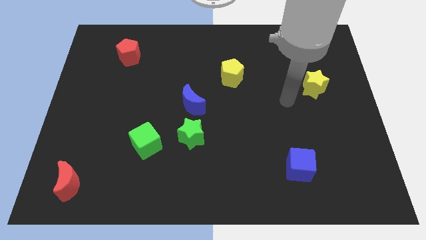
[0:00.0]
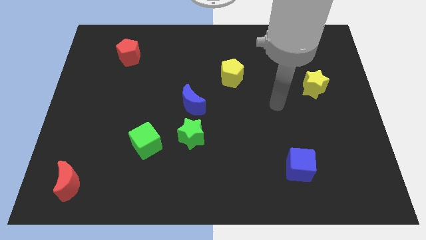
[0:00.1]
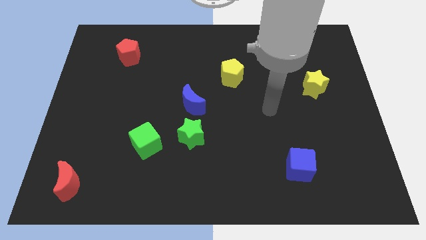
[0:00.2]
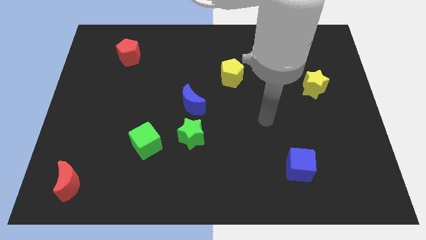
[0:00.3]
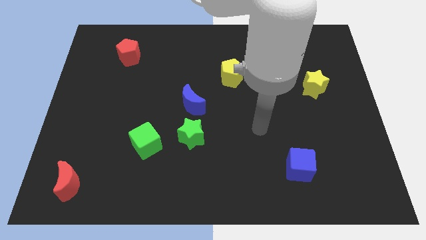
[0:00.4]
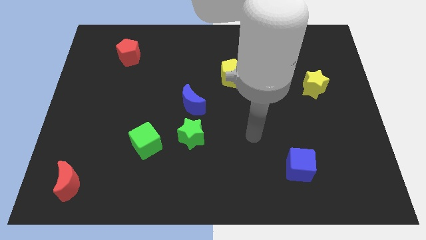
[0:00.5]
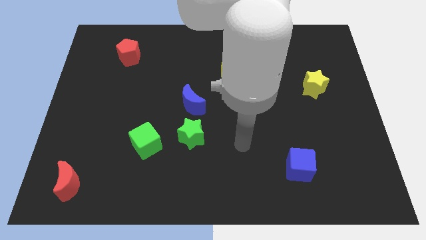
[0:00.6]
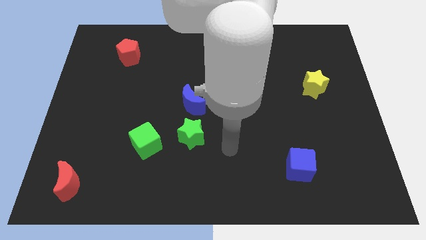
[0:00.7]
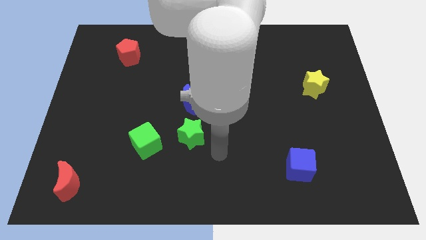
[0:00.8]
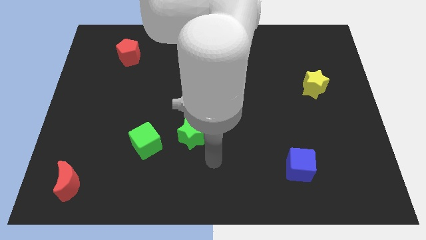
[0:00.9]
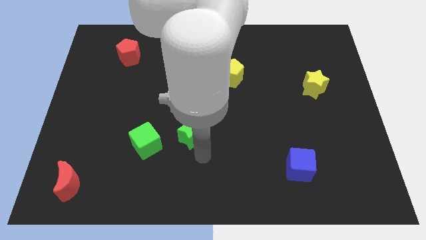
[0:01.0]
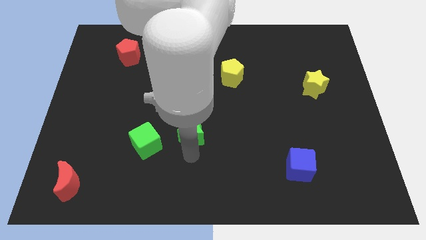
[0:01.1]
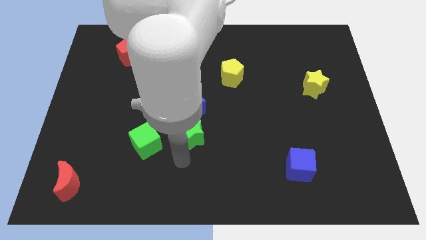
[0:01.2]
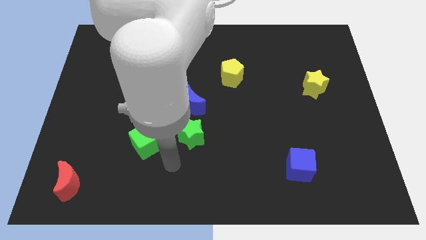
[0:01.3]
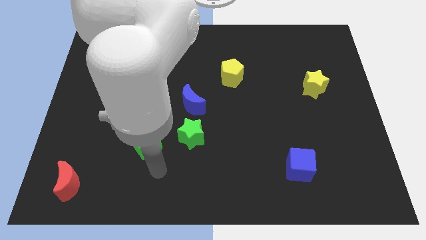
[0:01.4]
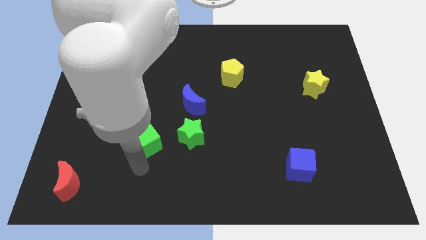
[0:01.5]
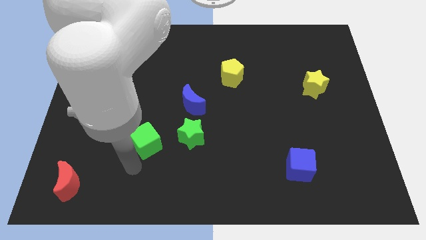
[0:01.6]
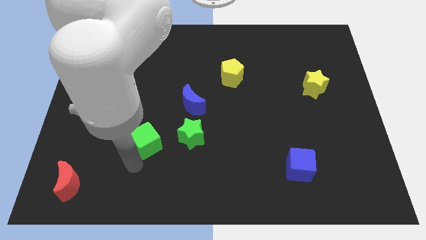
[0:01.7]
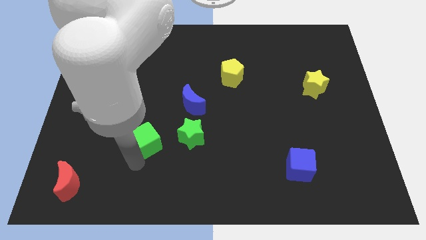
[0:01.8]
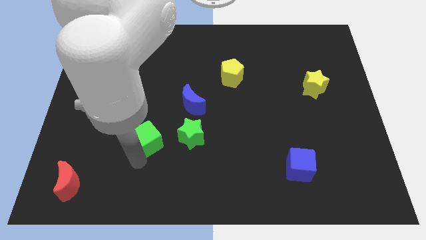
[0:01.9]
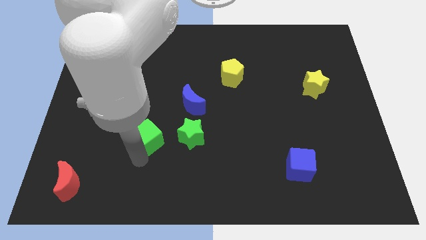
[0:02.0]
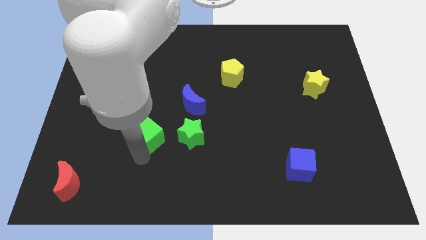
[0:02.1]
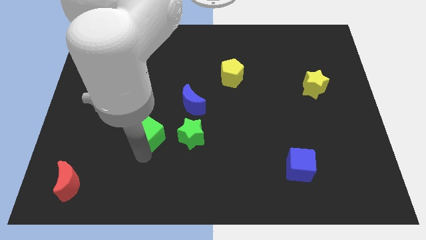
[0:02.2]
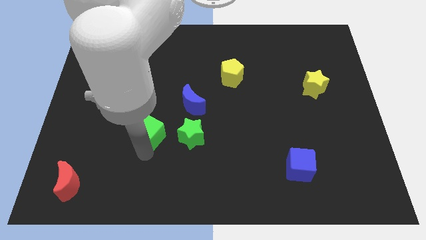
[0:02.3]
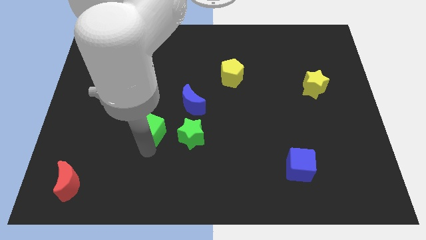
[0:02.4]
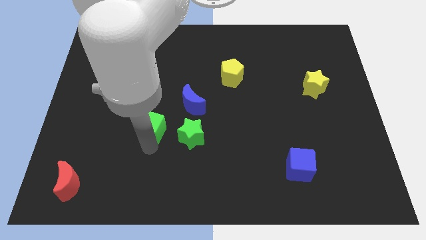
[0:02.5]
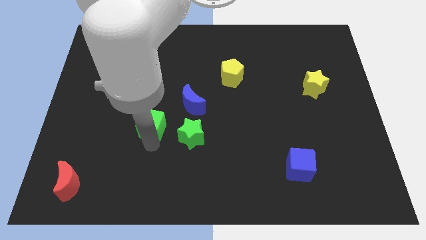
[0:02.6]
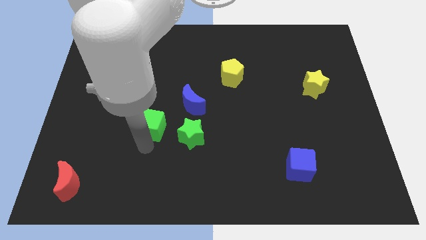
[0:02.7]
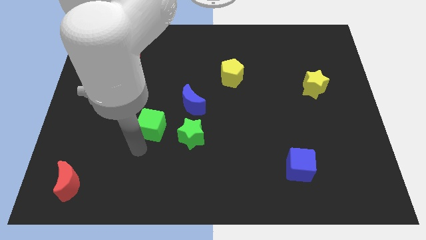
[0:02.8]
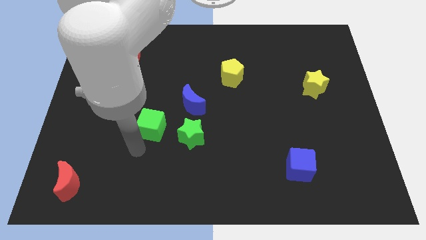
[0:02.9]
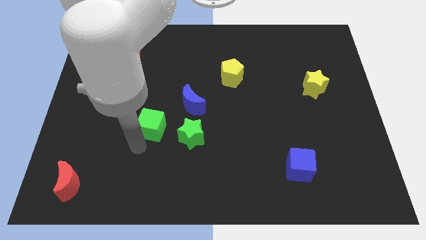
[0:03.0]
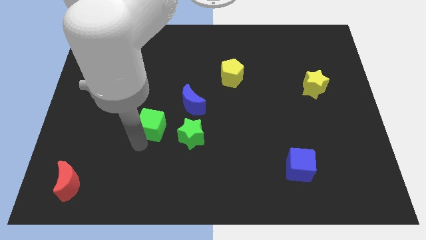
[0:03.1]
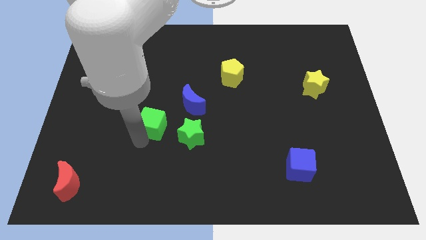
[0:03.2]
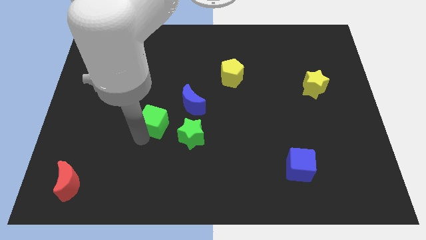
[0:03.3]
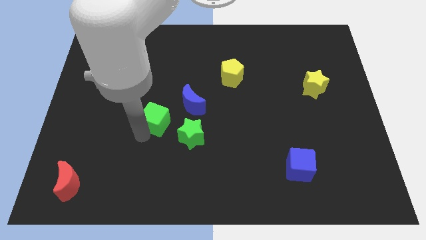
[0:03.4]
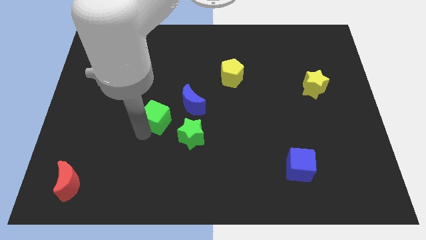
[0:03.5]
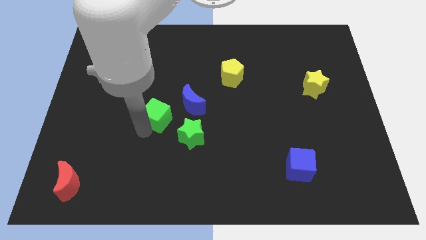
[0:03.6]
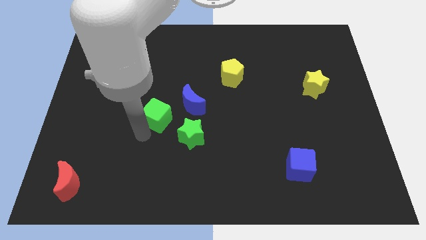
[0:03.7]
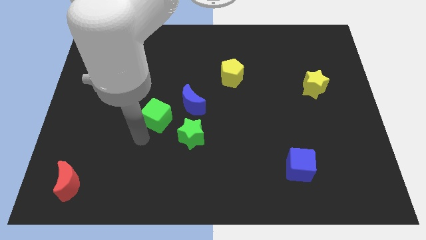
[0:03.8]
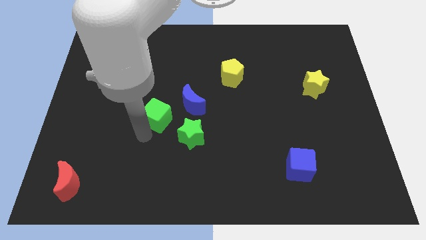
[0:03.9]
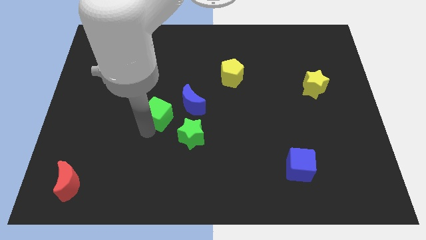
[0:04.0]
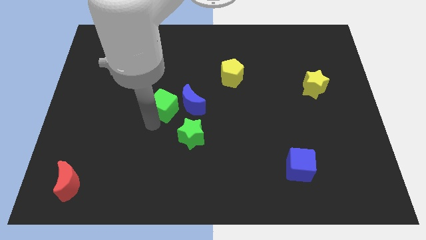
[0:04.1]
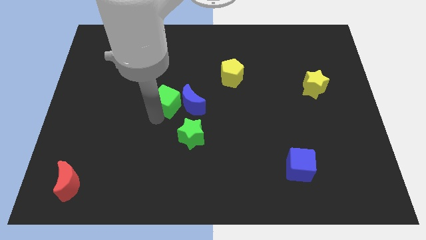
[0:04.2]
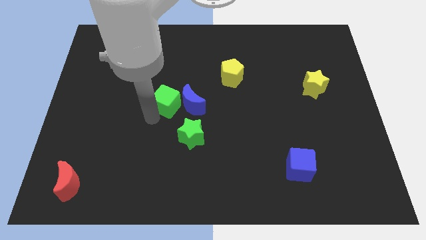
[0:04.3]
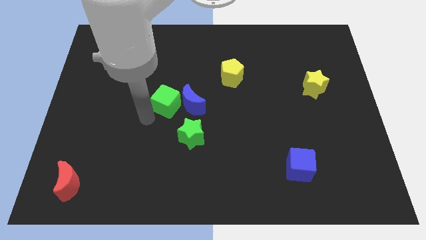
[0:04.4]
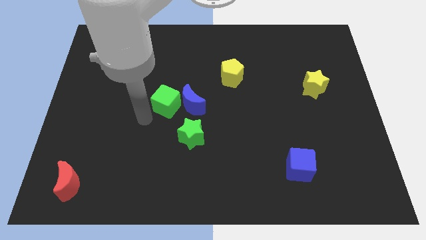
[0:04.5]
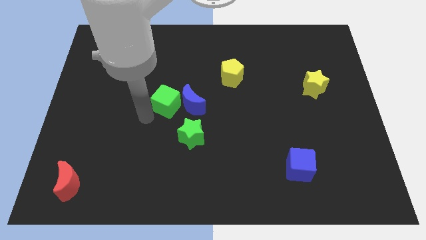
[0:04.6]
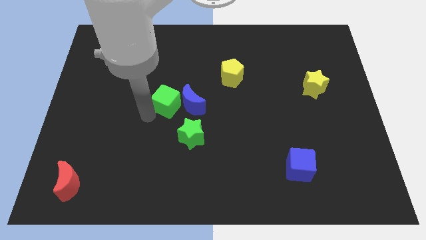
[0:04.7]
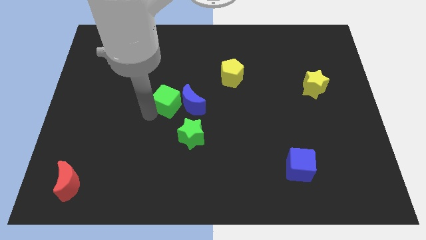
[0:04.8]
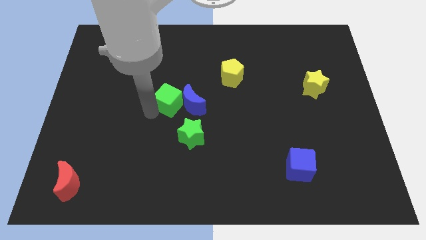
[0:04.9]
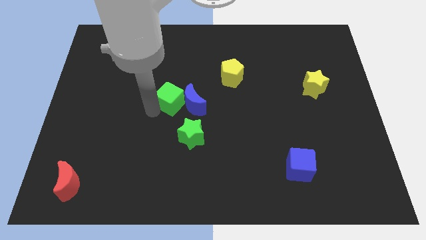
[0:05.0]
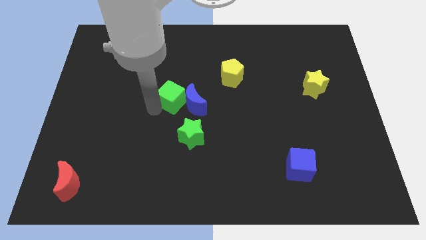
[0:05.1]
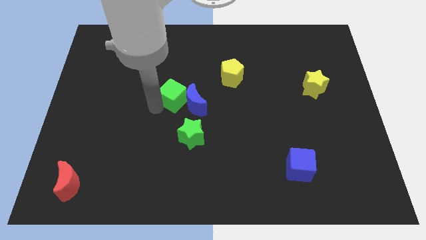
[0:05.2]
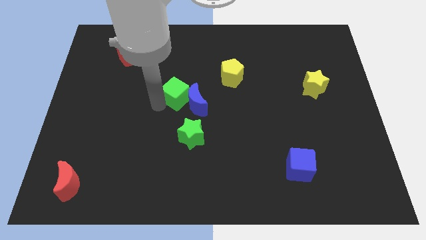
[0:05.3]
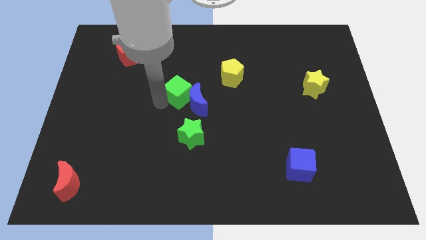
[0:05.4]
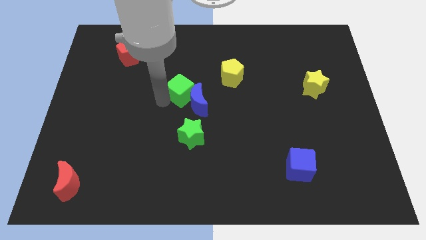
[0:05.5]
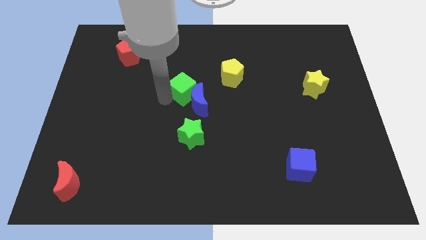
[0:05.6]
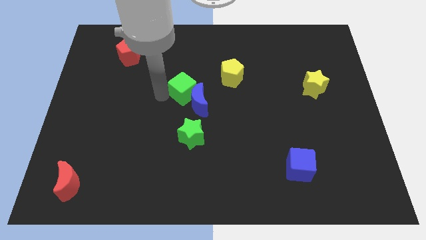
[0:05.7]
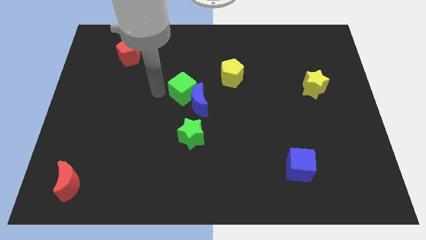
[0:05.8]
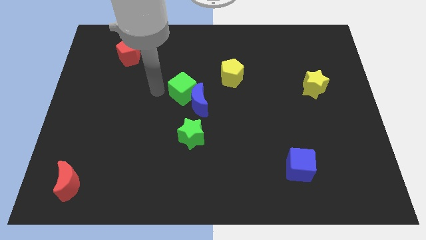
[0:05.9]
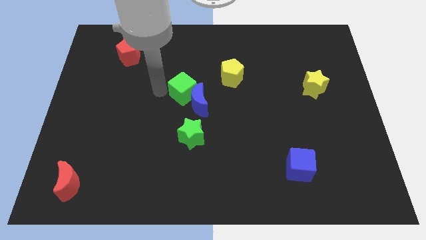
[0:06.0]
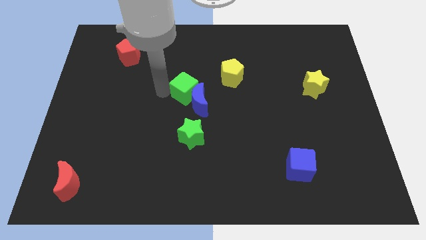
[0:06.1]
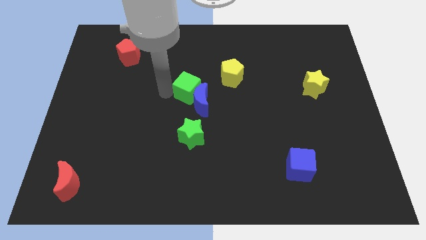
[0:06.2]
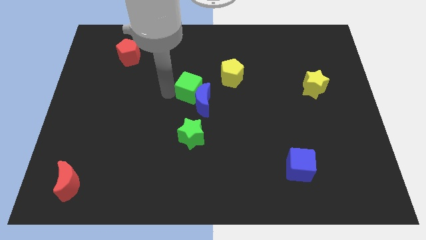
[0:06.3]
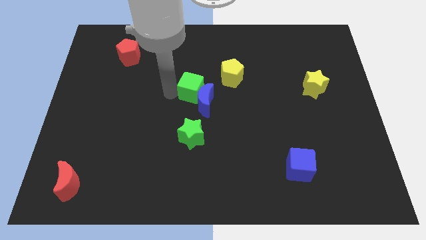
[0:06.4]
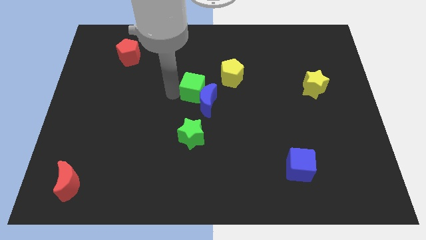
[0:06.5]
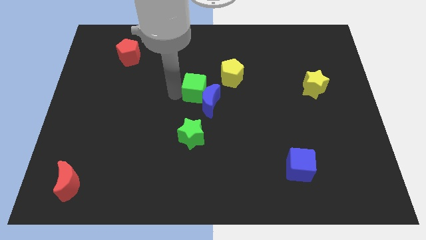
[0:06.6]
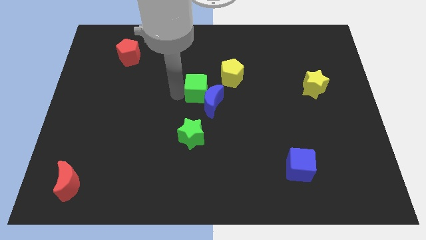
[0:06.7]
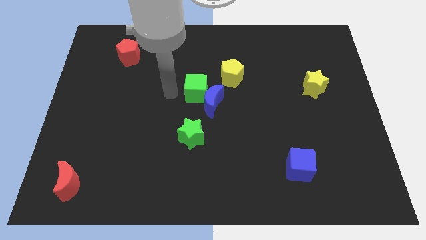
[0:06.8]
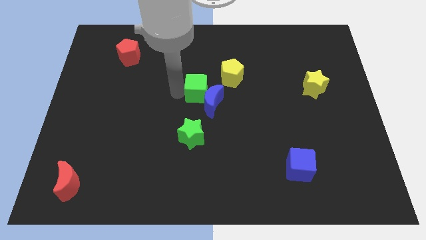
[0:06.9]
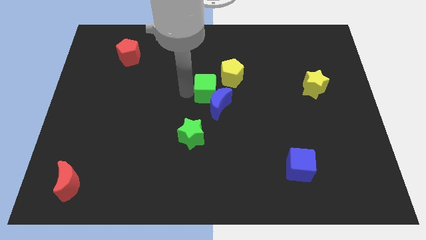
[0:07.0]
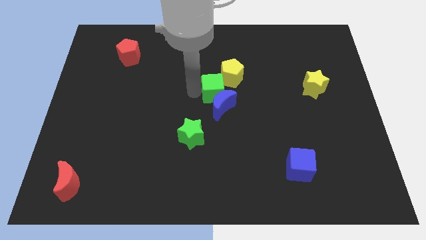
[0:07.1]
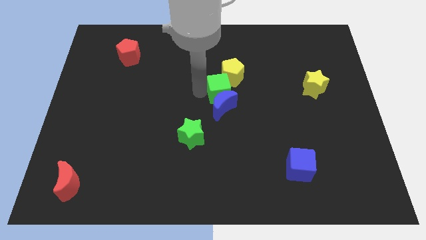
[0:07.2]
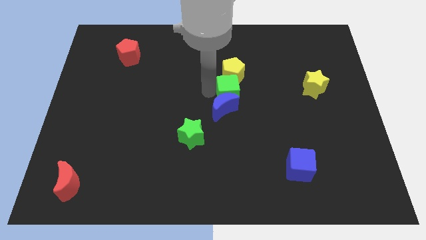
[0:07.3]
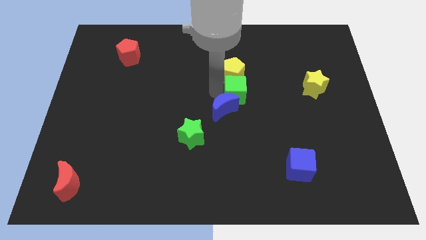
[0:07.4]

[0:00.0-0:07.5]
move the green cube to the bottom right of the yellow pentagon
